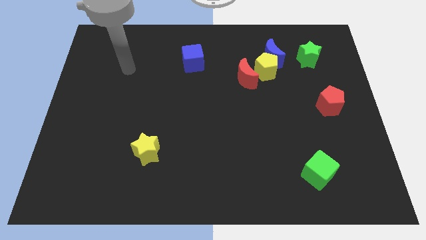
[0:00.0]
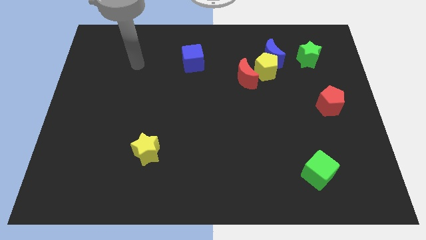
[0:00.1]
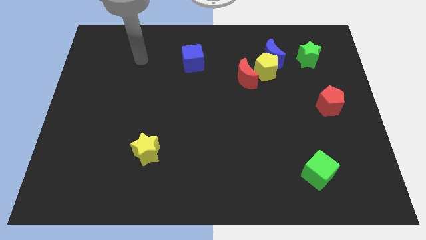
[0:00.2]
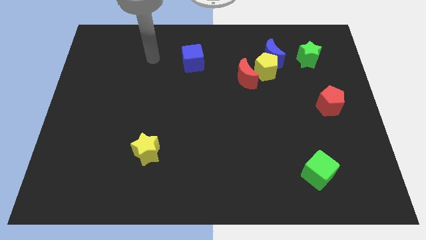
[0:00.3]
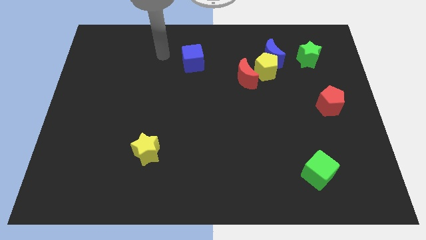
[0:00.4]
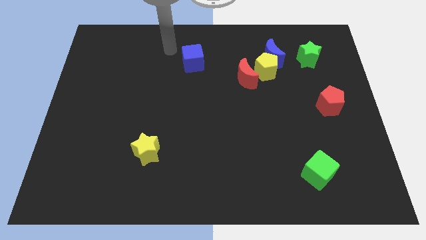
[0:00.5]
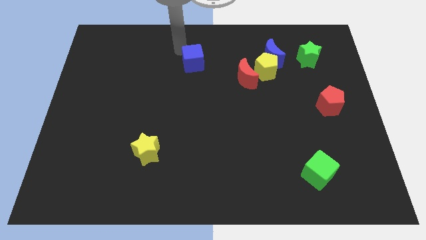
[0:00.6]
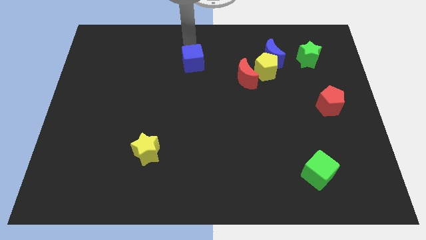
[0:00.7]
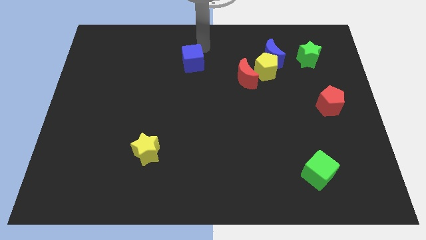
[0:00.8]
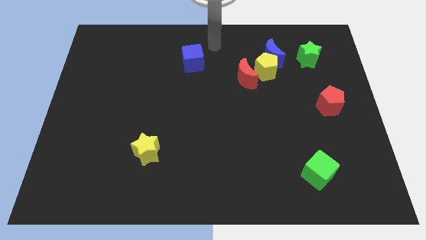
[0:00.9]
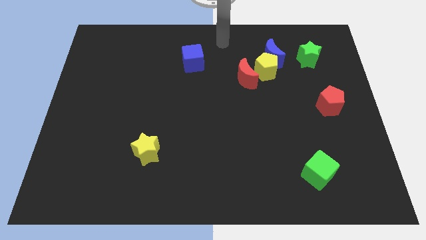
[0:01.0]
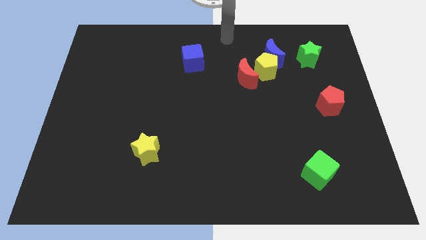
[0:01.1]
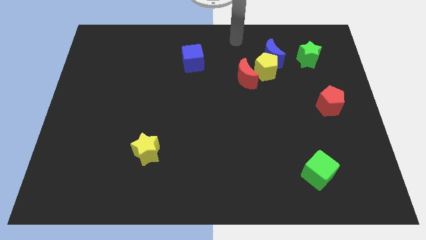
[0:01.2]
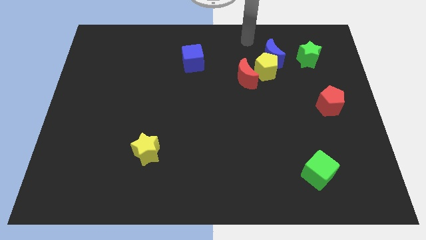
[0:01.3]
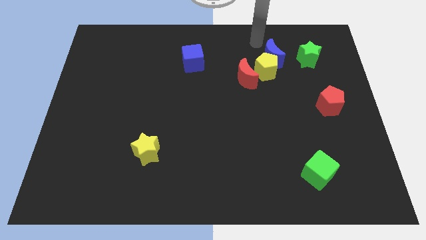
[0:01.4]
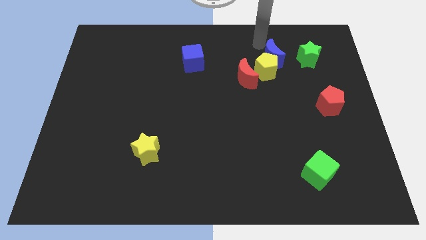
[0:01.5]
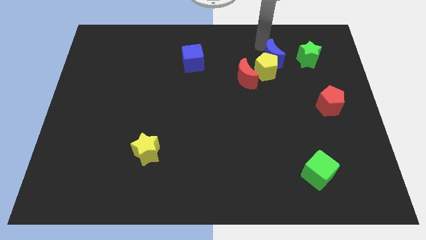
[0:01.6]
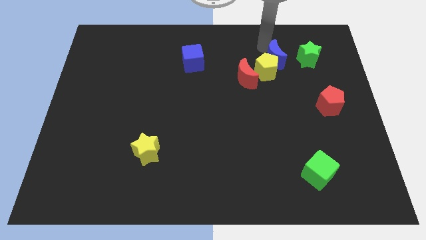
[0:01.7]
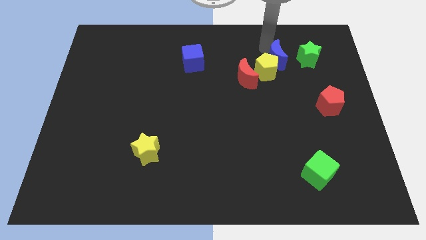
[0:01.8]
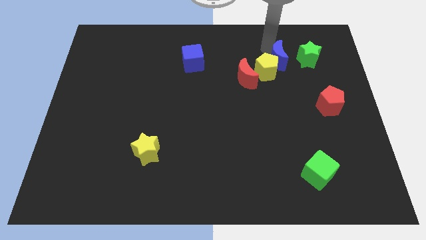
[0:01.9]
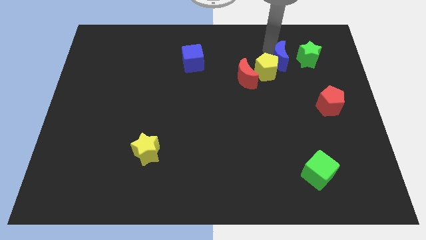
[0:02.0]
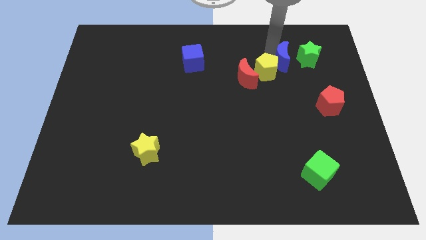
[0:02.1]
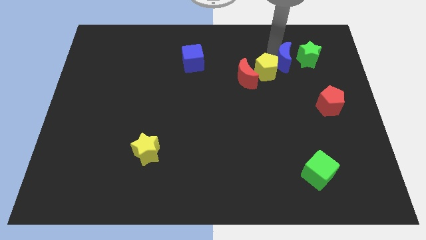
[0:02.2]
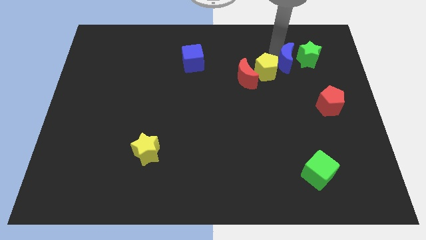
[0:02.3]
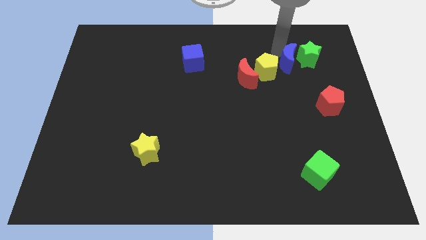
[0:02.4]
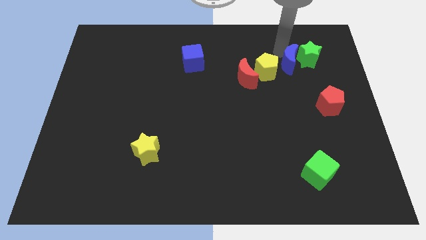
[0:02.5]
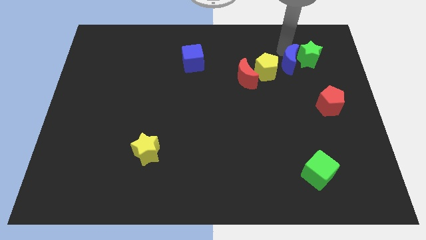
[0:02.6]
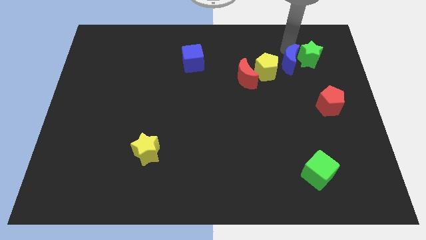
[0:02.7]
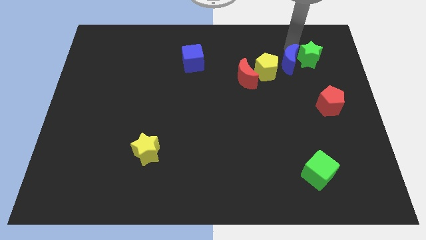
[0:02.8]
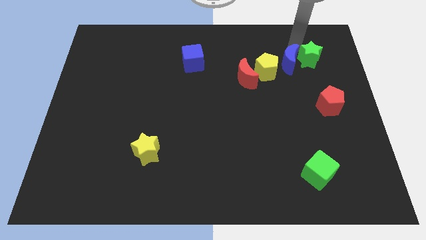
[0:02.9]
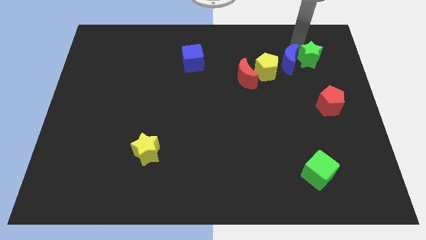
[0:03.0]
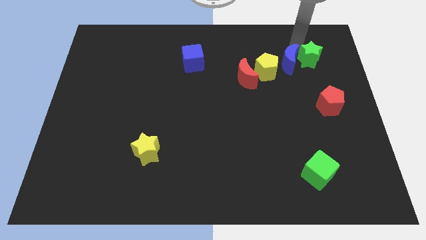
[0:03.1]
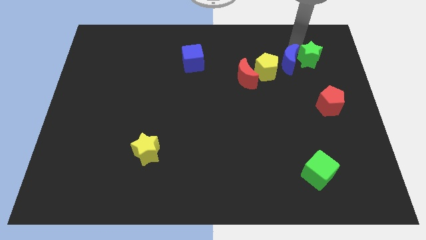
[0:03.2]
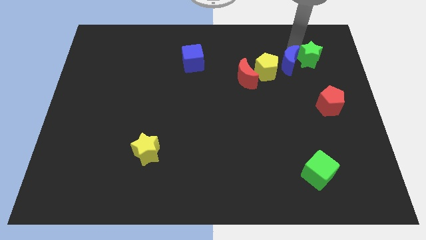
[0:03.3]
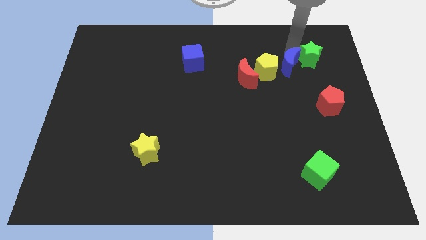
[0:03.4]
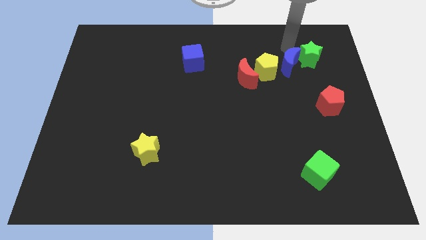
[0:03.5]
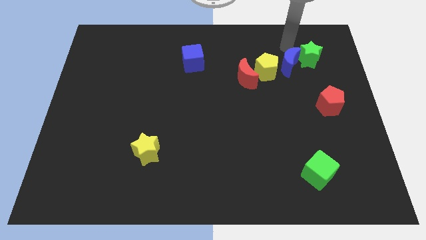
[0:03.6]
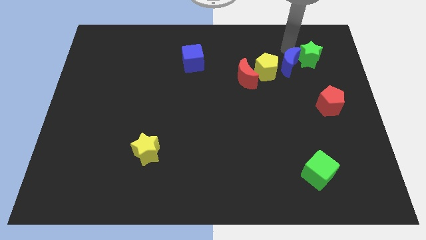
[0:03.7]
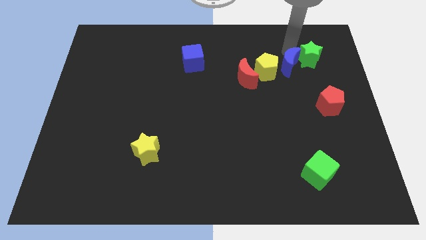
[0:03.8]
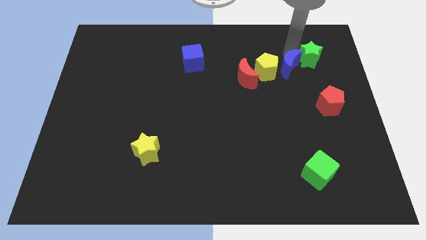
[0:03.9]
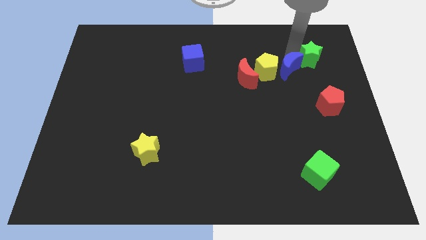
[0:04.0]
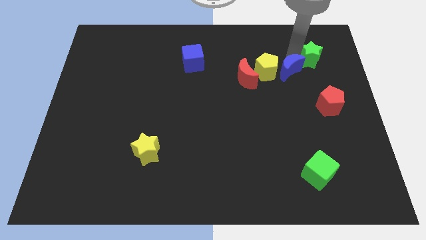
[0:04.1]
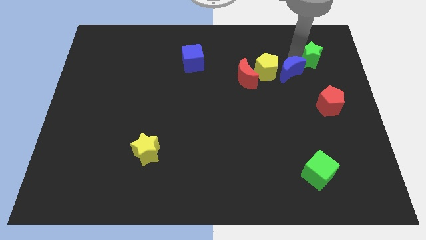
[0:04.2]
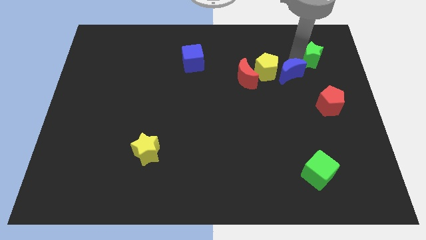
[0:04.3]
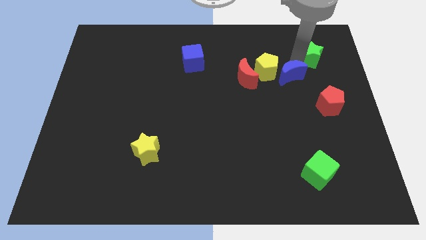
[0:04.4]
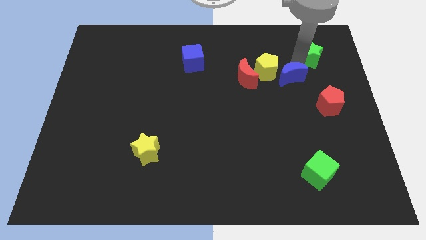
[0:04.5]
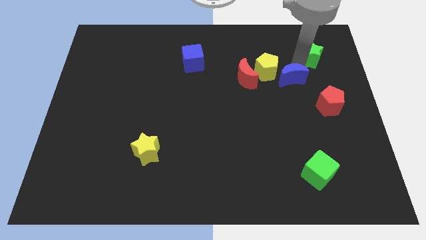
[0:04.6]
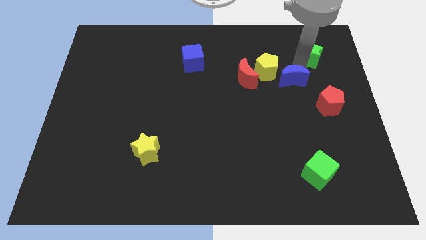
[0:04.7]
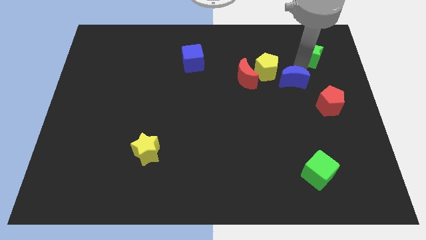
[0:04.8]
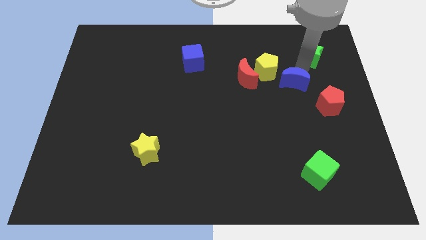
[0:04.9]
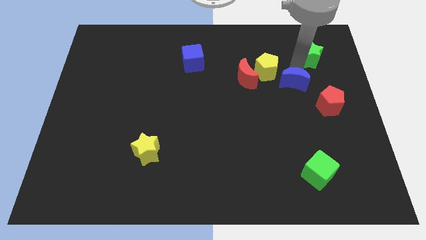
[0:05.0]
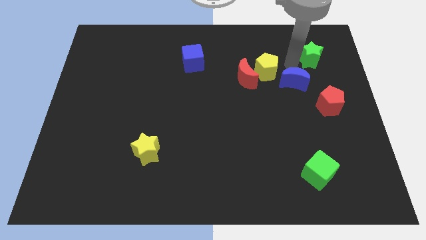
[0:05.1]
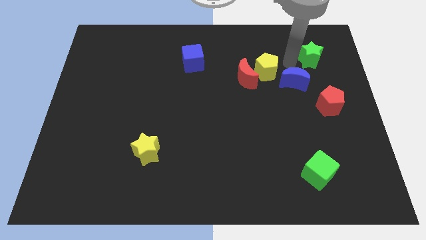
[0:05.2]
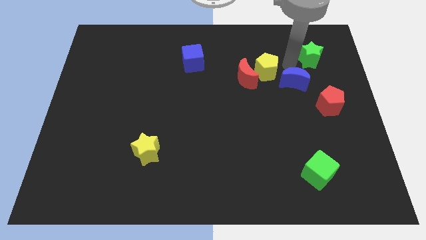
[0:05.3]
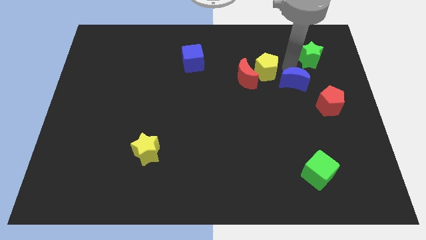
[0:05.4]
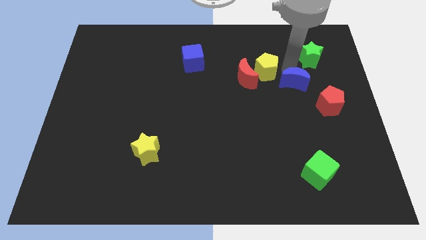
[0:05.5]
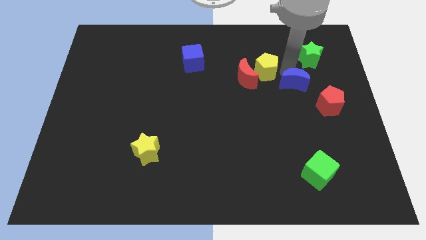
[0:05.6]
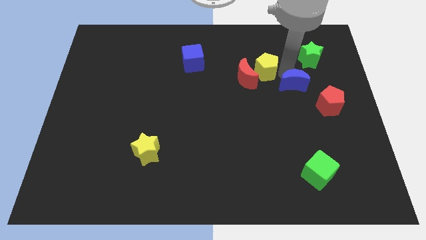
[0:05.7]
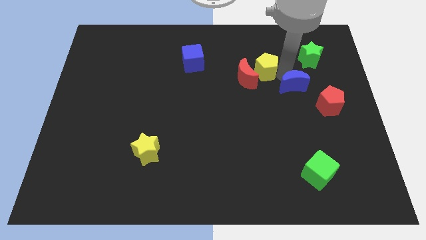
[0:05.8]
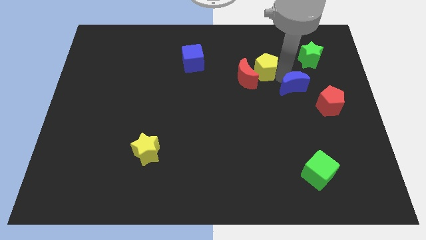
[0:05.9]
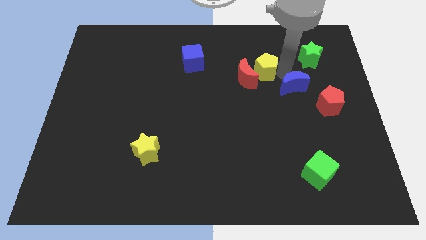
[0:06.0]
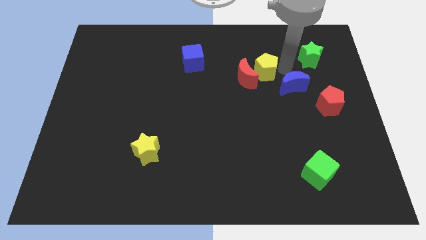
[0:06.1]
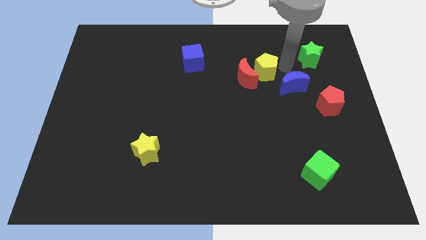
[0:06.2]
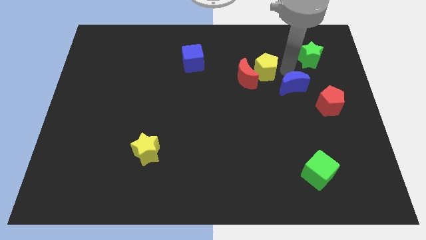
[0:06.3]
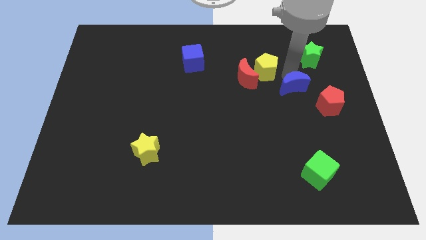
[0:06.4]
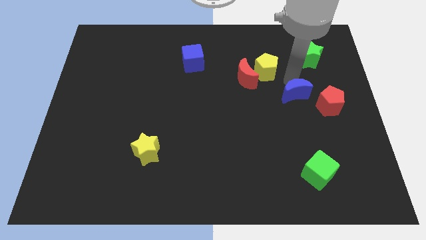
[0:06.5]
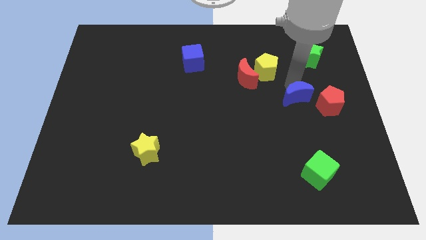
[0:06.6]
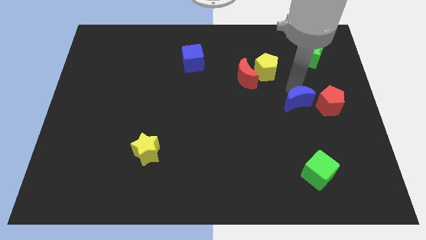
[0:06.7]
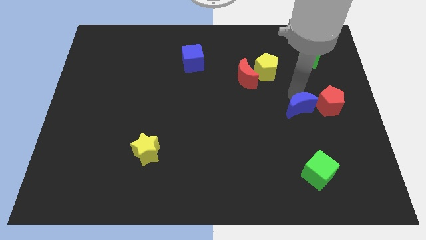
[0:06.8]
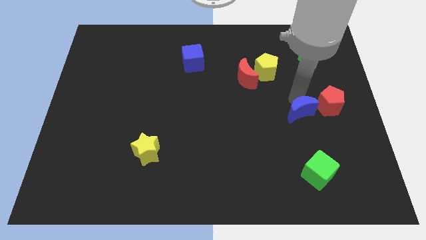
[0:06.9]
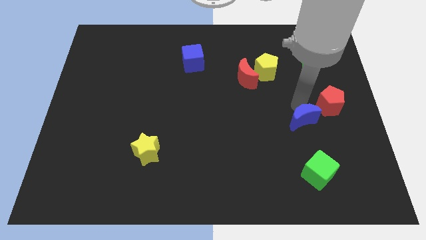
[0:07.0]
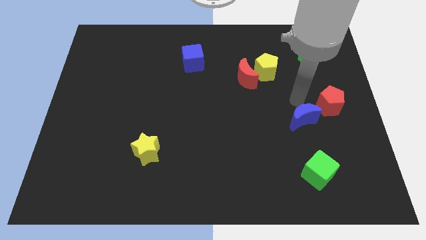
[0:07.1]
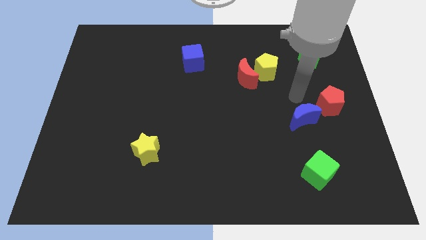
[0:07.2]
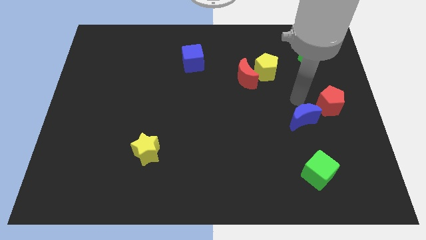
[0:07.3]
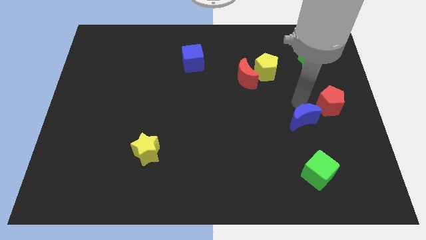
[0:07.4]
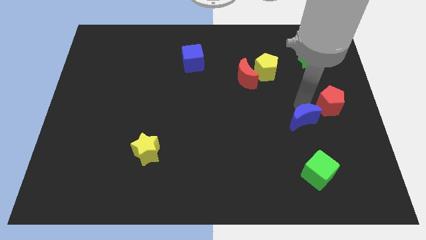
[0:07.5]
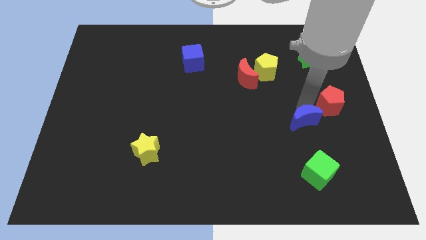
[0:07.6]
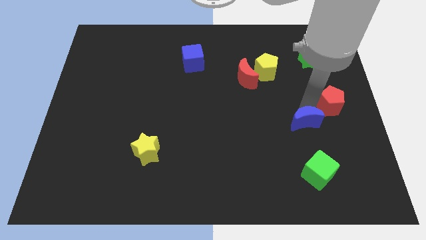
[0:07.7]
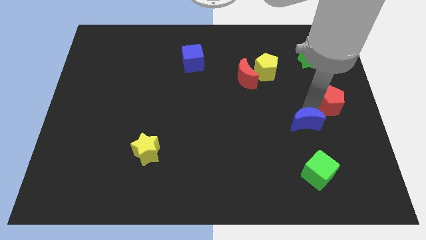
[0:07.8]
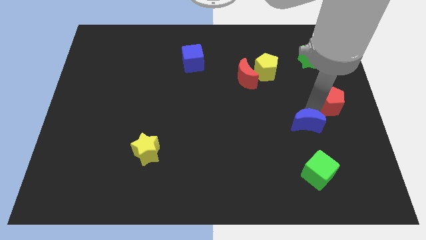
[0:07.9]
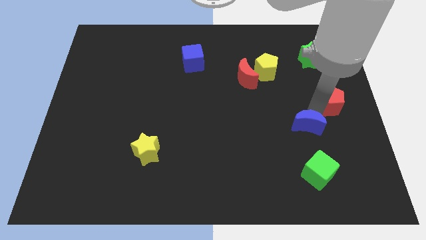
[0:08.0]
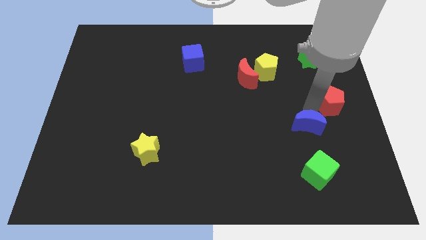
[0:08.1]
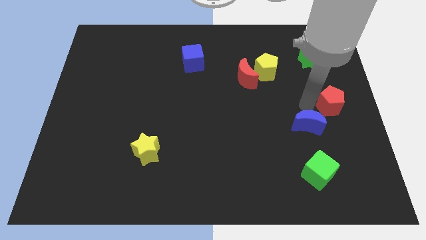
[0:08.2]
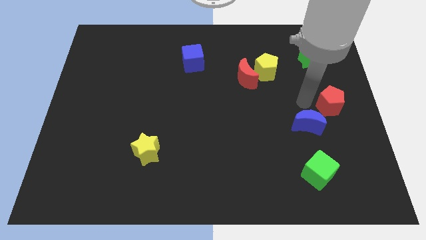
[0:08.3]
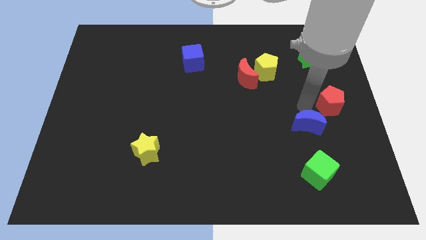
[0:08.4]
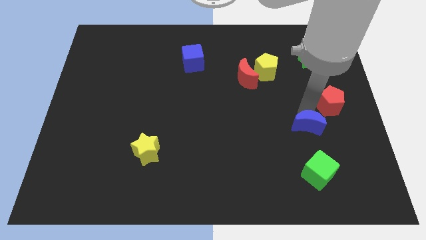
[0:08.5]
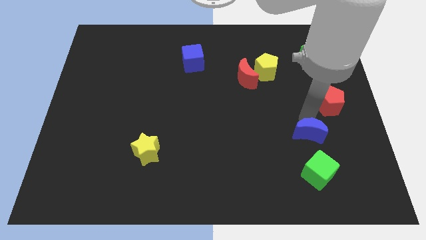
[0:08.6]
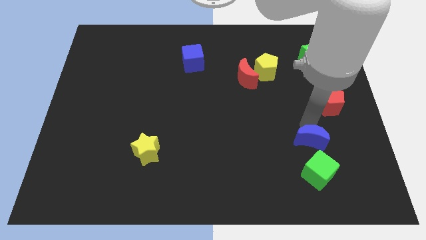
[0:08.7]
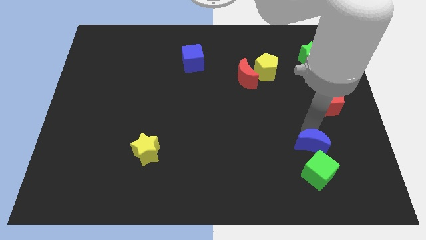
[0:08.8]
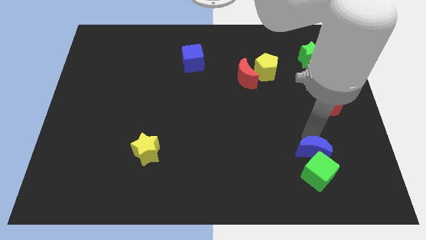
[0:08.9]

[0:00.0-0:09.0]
move the blue moon towards the green cube
